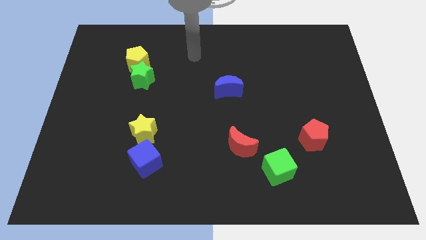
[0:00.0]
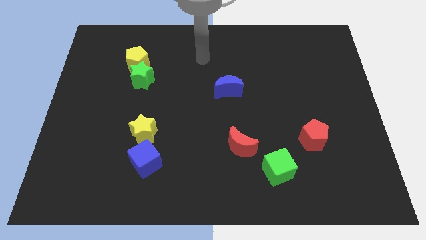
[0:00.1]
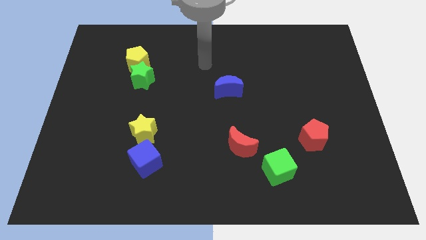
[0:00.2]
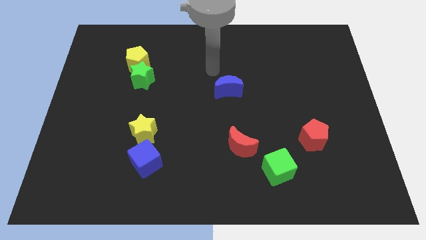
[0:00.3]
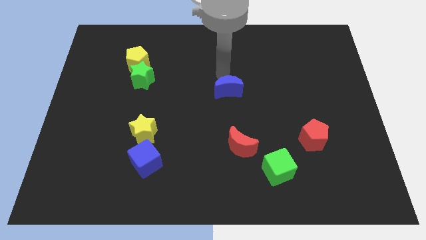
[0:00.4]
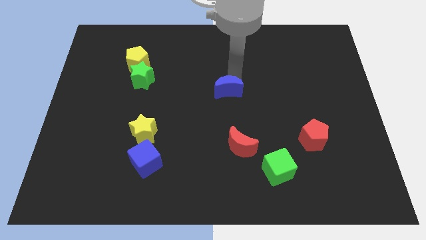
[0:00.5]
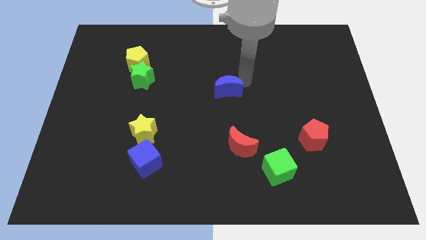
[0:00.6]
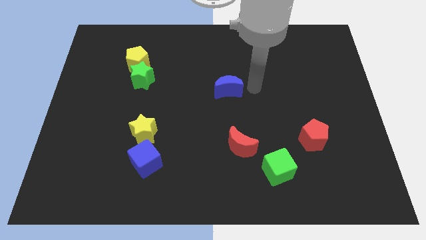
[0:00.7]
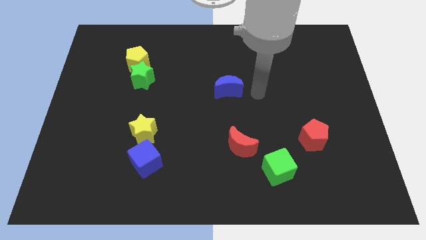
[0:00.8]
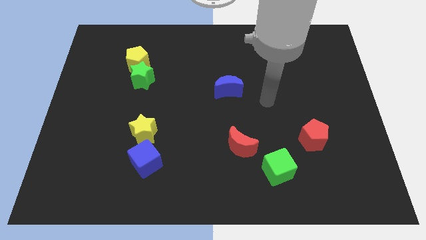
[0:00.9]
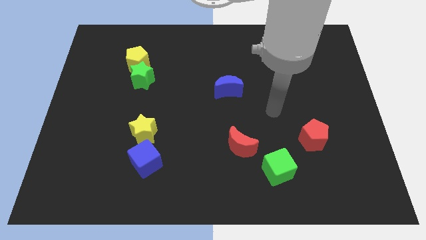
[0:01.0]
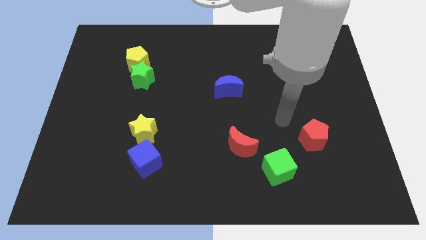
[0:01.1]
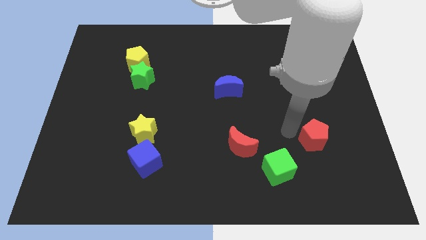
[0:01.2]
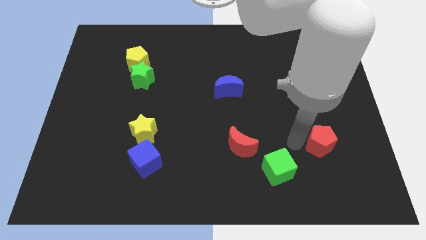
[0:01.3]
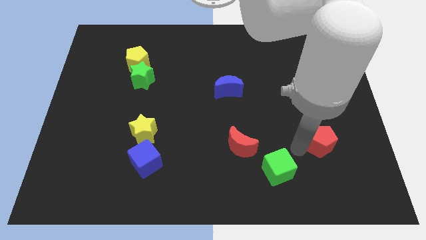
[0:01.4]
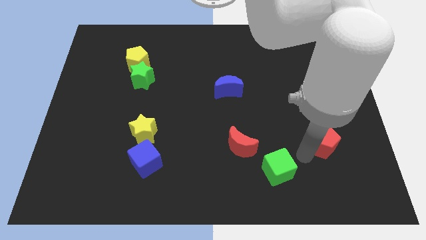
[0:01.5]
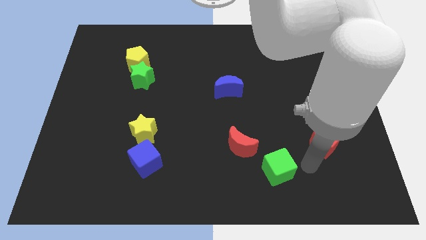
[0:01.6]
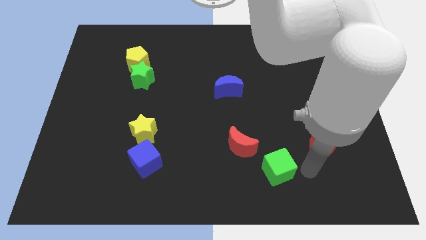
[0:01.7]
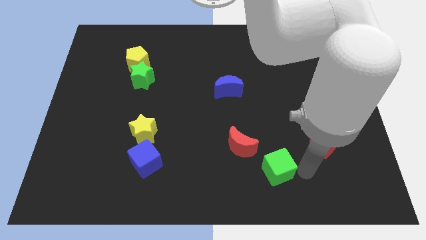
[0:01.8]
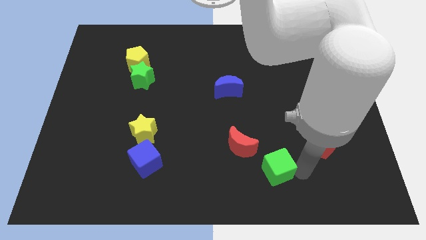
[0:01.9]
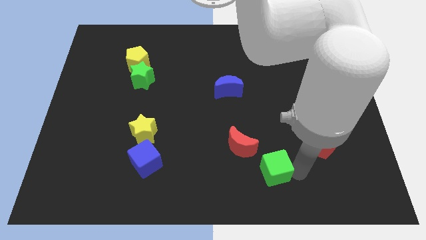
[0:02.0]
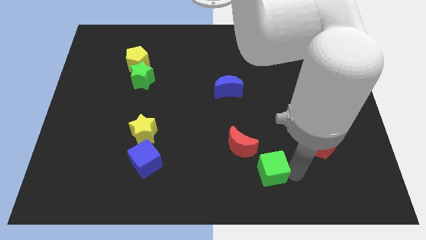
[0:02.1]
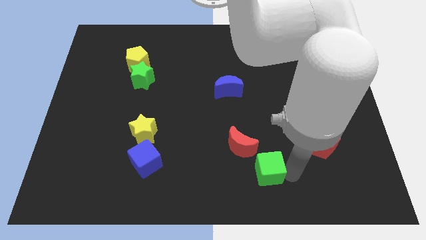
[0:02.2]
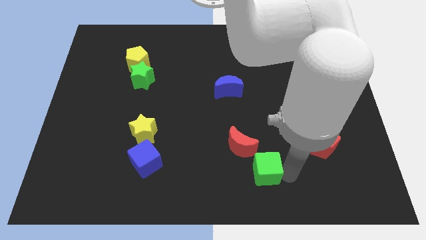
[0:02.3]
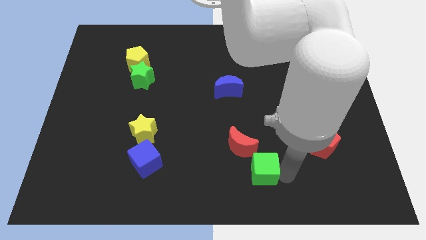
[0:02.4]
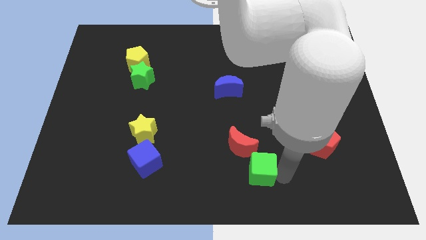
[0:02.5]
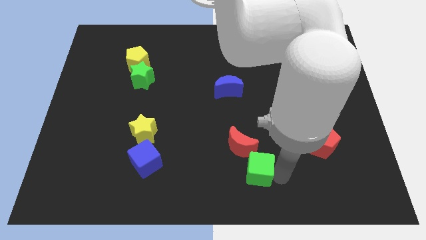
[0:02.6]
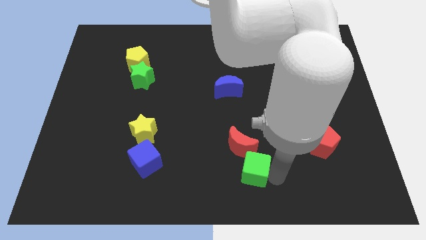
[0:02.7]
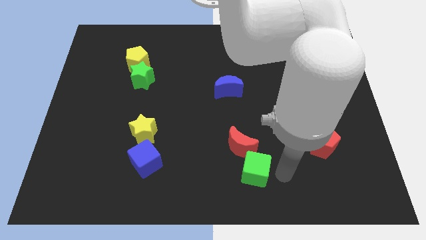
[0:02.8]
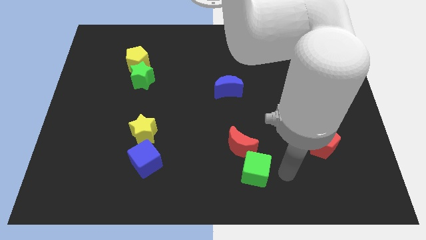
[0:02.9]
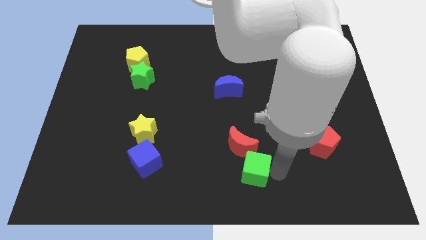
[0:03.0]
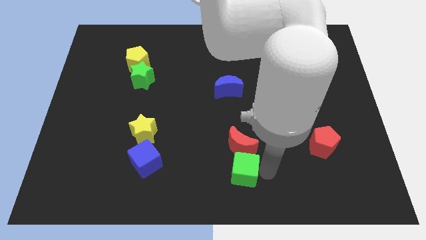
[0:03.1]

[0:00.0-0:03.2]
push the green cube to the left a bit

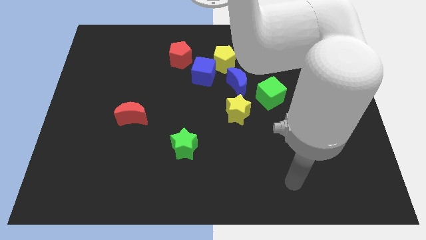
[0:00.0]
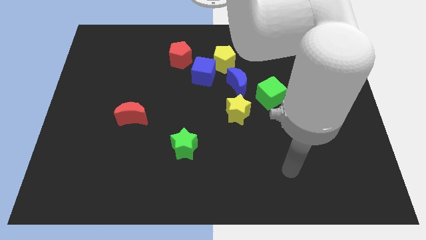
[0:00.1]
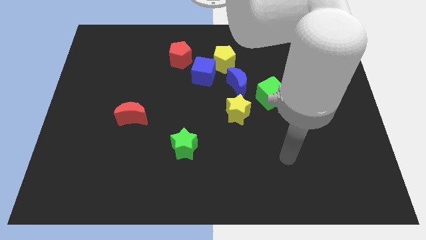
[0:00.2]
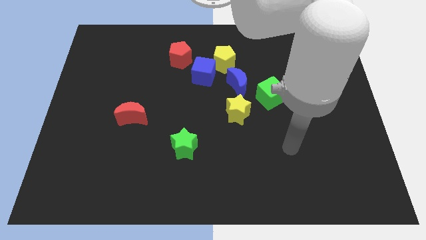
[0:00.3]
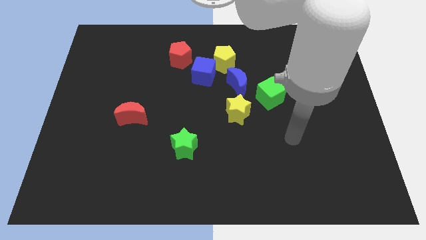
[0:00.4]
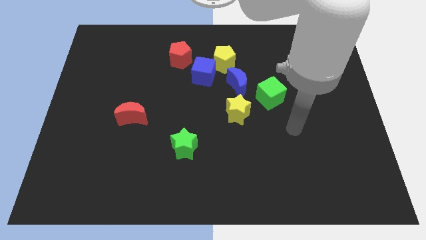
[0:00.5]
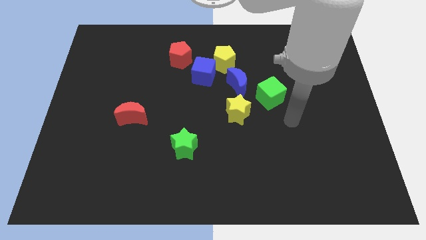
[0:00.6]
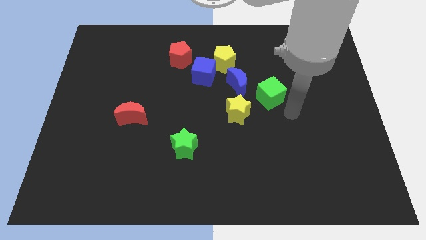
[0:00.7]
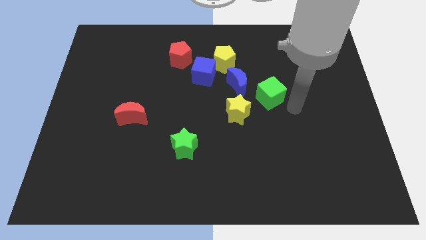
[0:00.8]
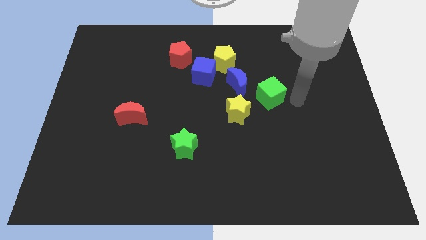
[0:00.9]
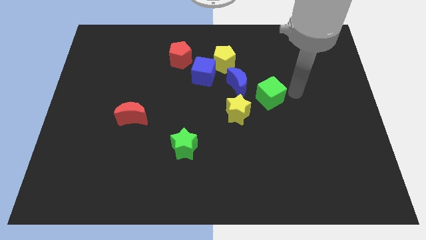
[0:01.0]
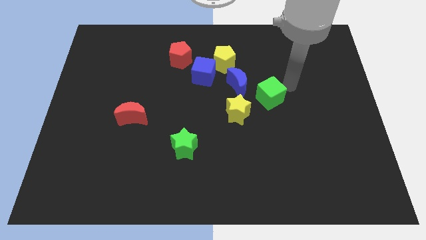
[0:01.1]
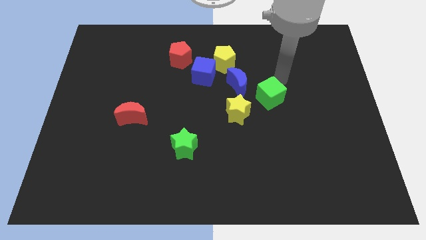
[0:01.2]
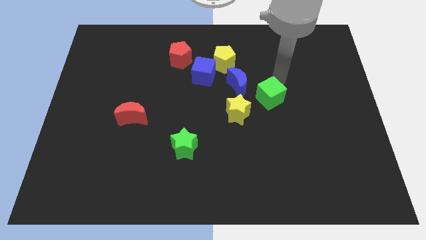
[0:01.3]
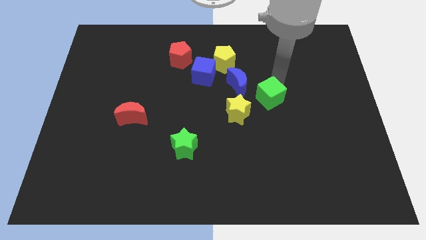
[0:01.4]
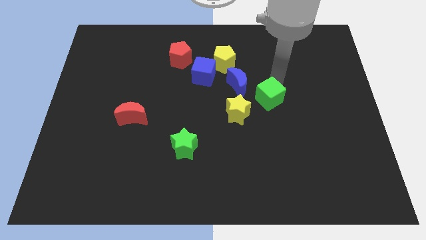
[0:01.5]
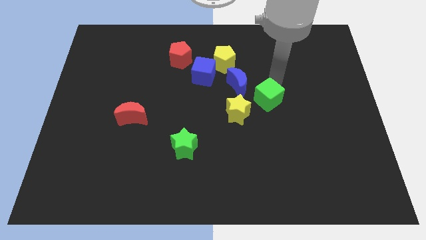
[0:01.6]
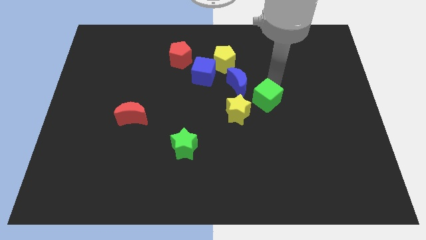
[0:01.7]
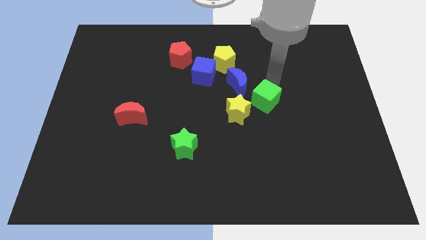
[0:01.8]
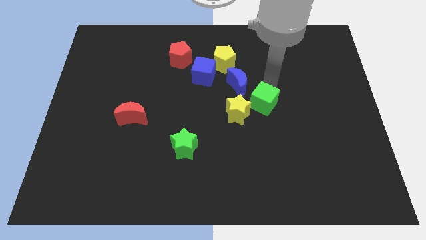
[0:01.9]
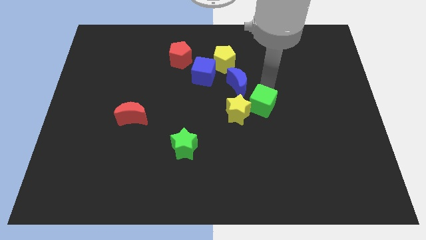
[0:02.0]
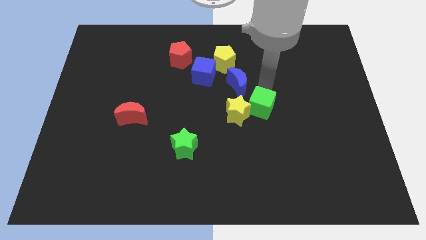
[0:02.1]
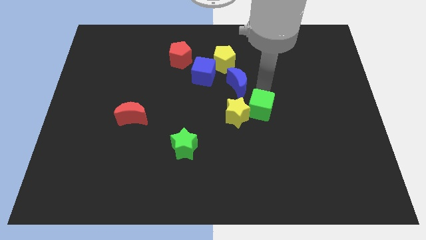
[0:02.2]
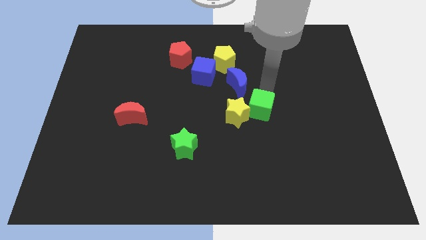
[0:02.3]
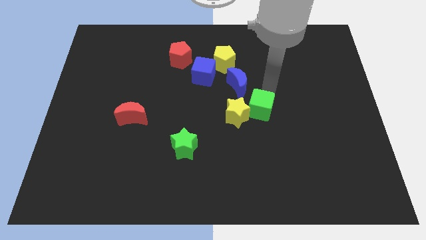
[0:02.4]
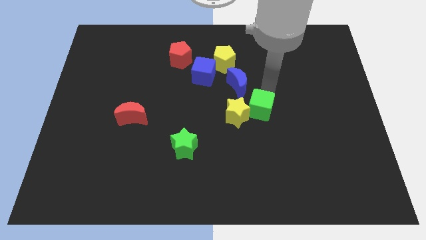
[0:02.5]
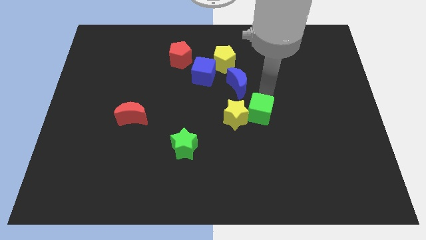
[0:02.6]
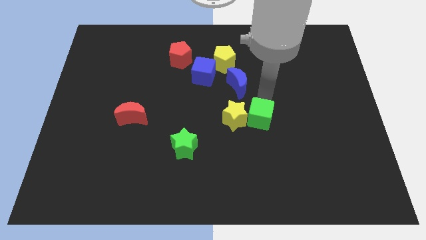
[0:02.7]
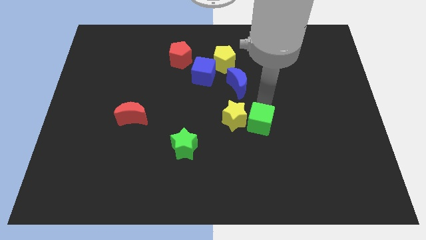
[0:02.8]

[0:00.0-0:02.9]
slightly move the green cube downwards and then to the left

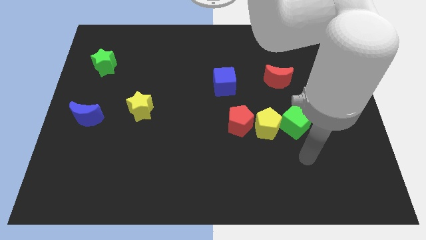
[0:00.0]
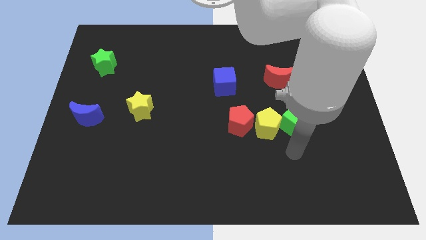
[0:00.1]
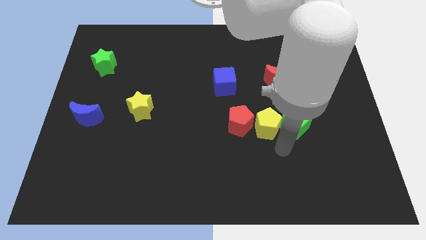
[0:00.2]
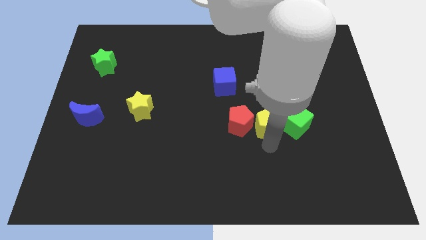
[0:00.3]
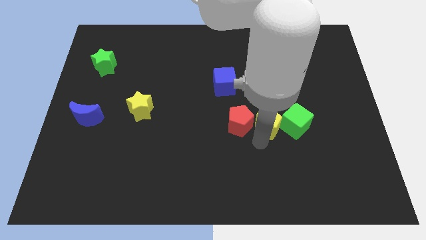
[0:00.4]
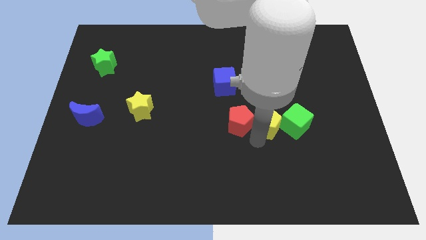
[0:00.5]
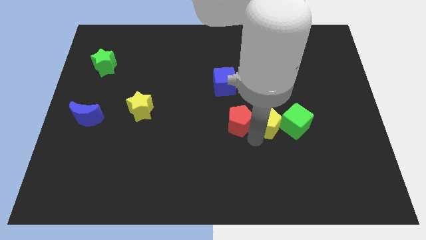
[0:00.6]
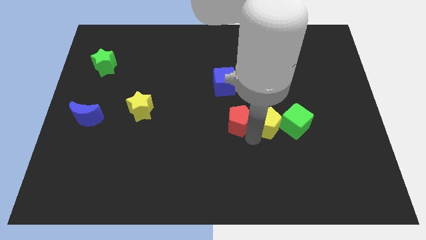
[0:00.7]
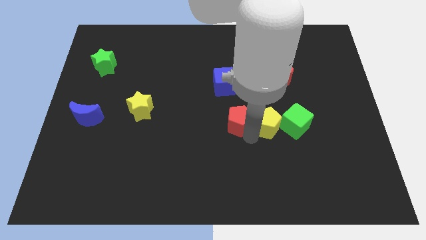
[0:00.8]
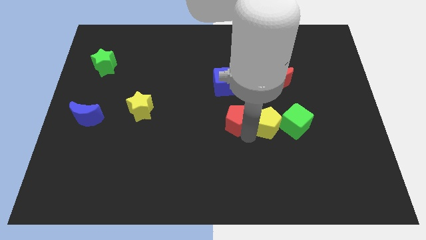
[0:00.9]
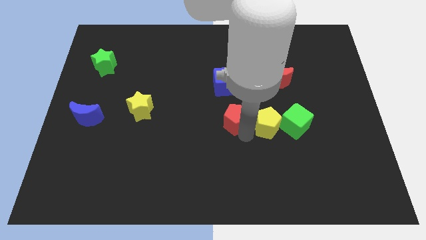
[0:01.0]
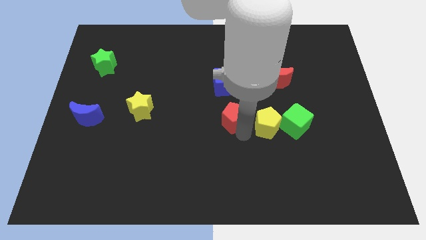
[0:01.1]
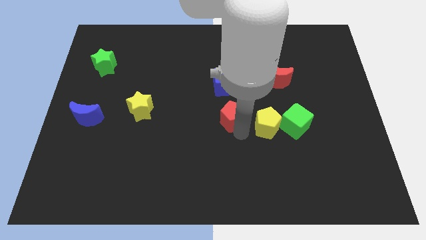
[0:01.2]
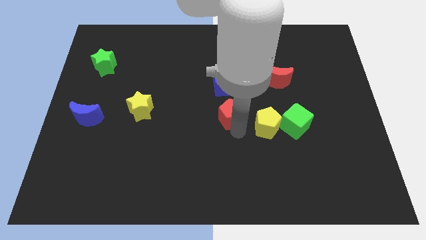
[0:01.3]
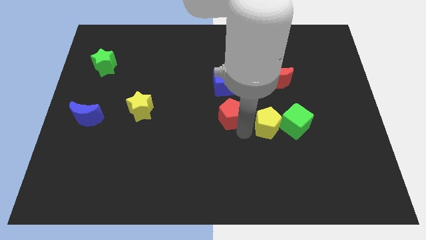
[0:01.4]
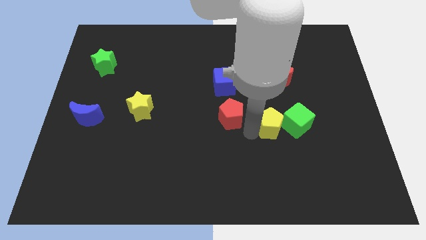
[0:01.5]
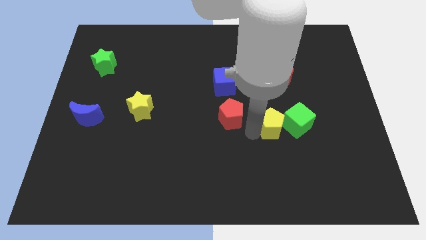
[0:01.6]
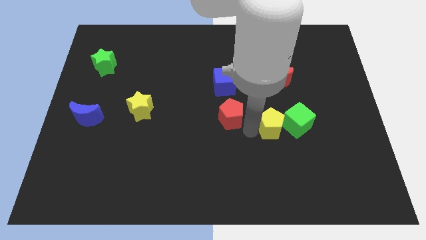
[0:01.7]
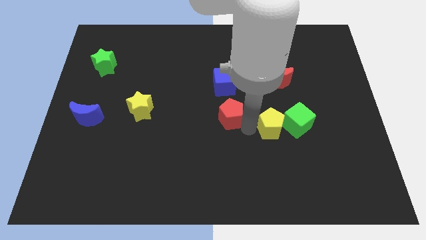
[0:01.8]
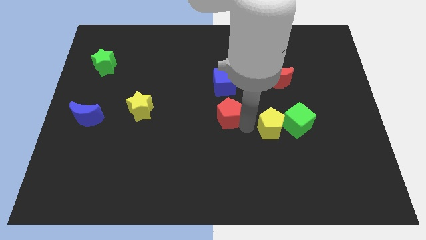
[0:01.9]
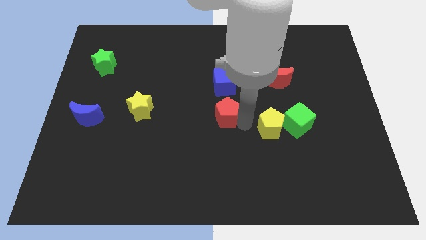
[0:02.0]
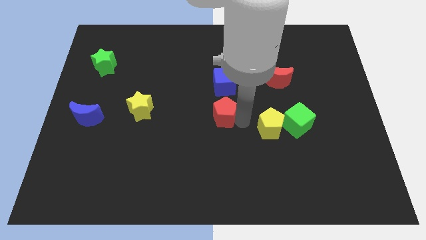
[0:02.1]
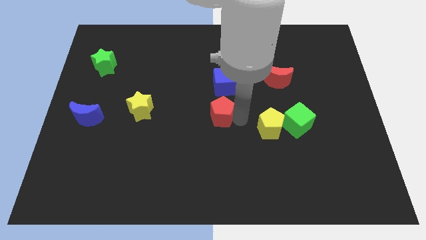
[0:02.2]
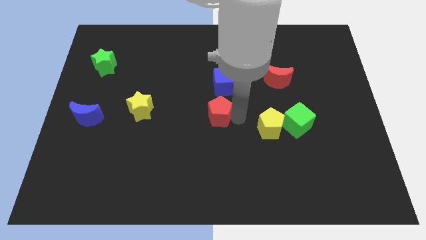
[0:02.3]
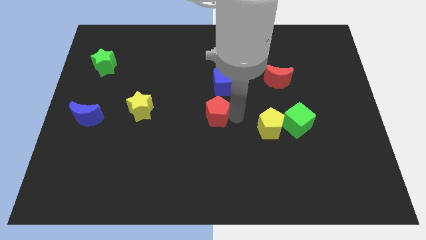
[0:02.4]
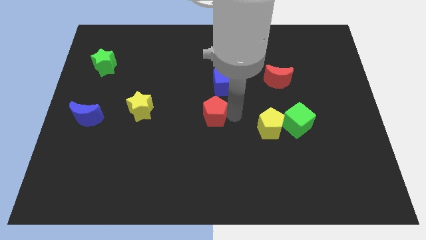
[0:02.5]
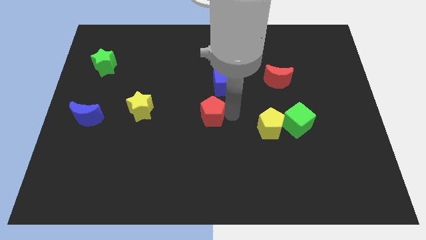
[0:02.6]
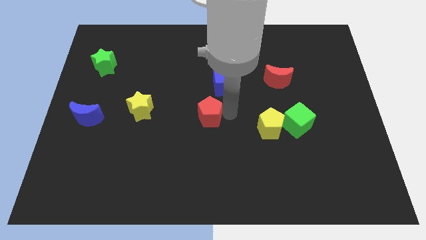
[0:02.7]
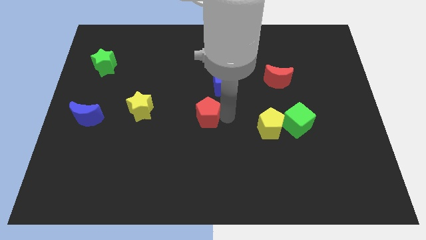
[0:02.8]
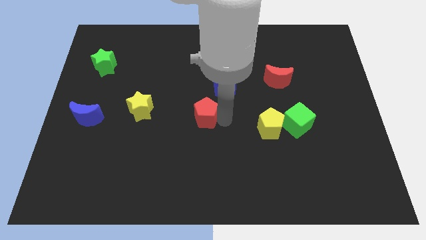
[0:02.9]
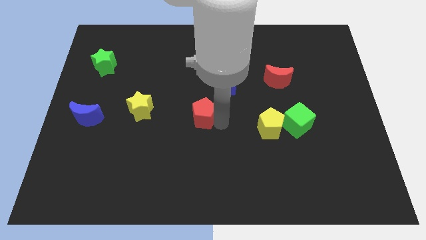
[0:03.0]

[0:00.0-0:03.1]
push the red pentagon a little bit diagonally up and left
